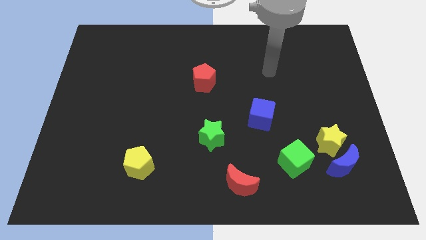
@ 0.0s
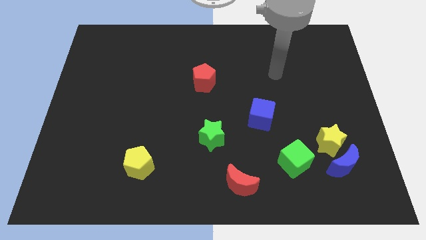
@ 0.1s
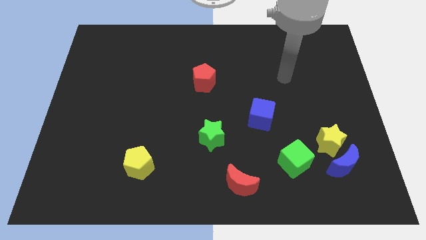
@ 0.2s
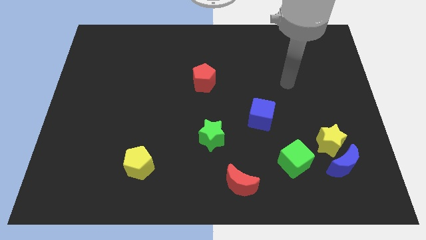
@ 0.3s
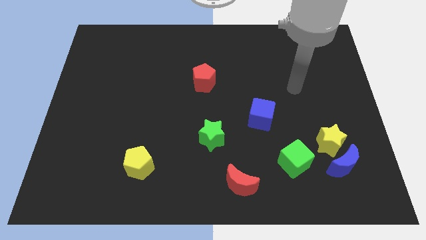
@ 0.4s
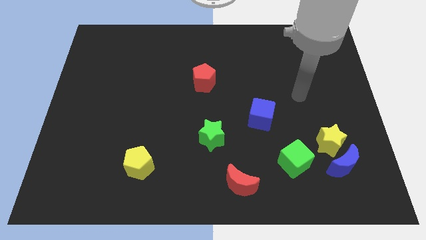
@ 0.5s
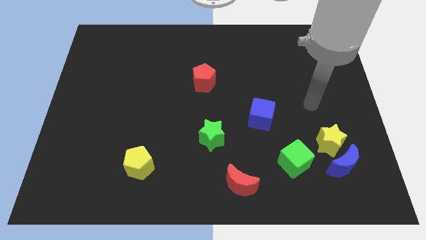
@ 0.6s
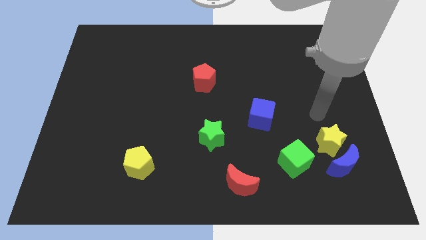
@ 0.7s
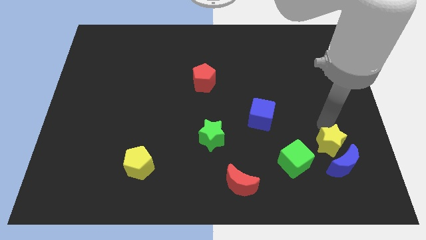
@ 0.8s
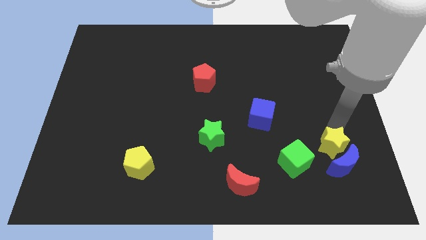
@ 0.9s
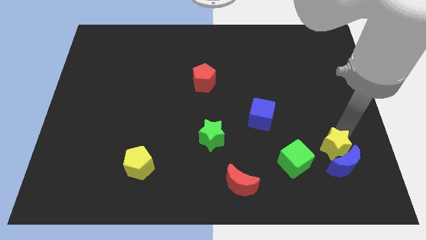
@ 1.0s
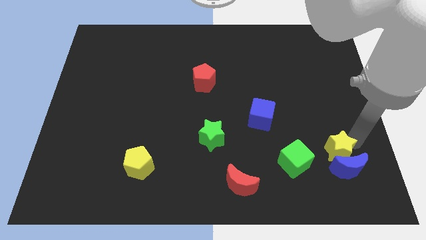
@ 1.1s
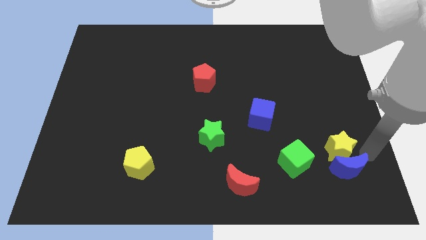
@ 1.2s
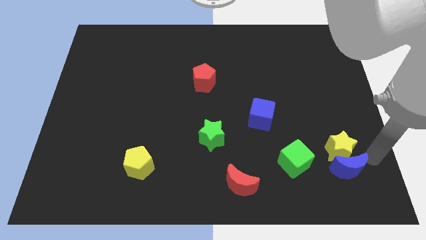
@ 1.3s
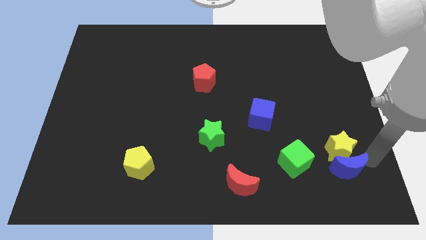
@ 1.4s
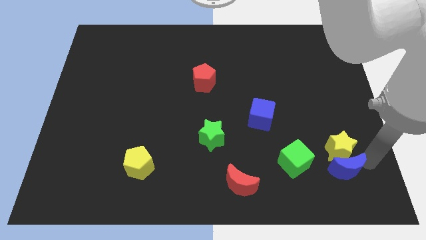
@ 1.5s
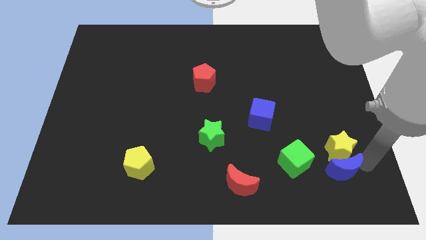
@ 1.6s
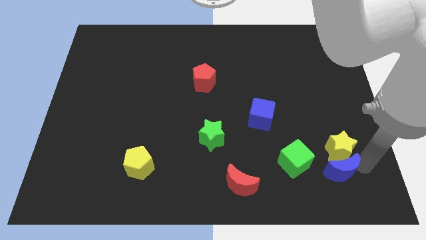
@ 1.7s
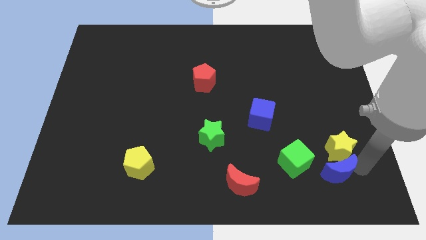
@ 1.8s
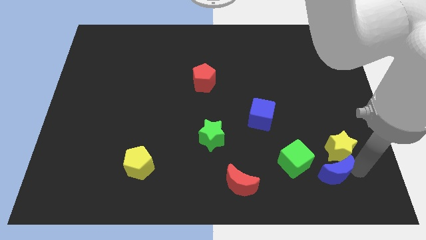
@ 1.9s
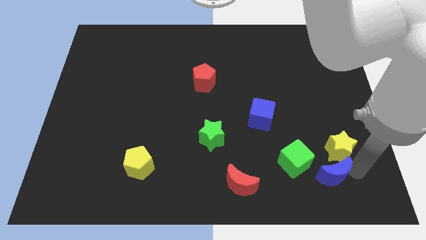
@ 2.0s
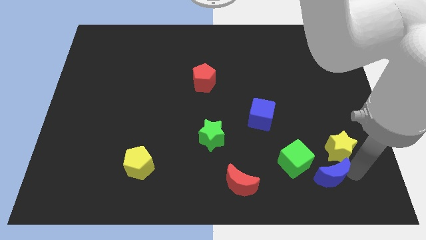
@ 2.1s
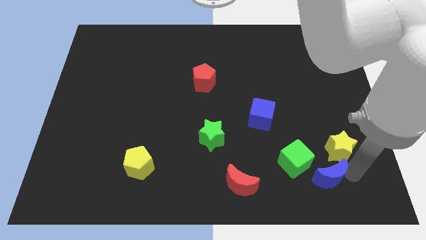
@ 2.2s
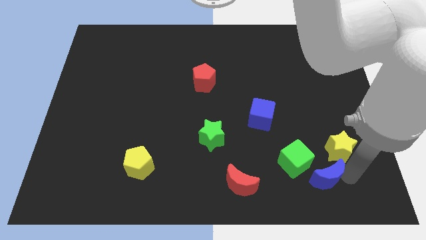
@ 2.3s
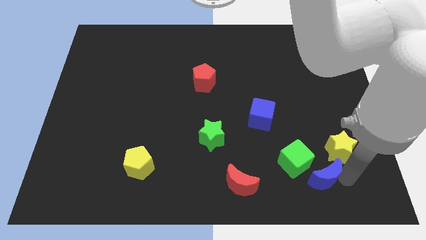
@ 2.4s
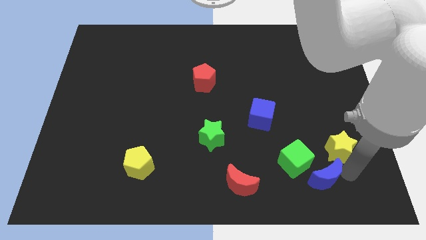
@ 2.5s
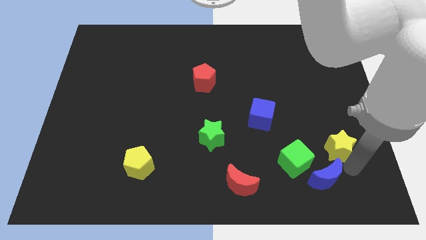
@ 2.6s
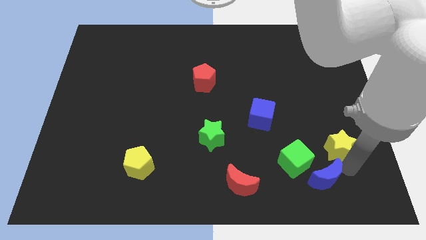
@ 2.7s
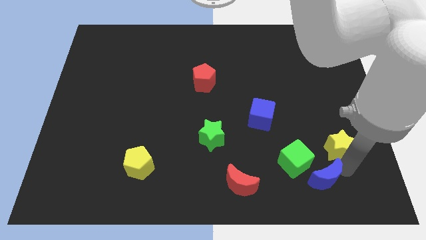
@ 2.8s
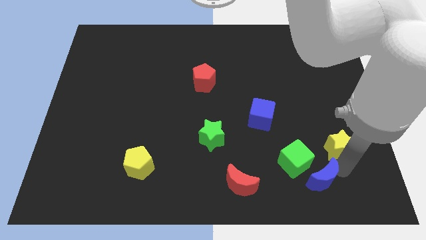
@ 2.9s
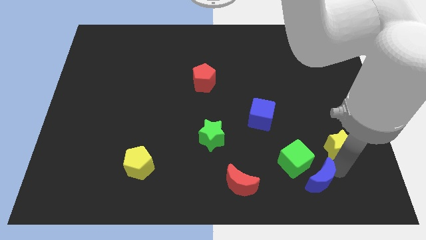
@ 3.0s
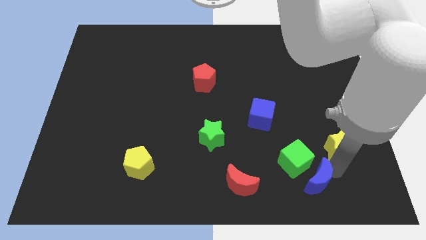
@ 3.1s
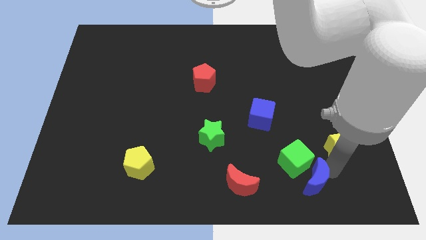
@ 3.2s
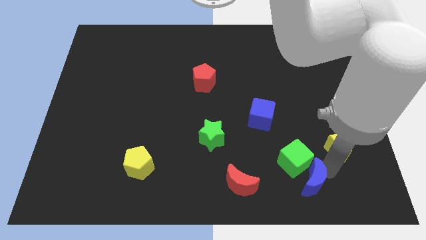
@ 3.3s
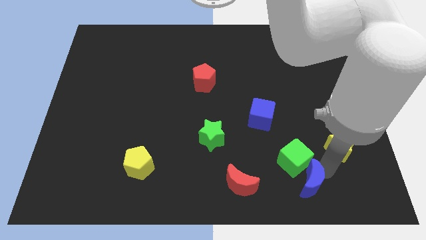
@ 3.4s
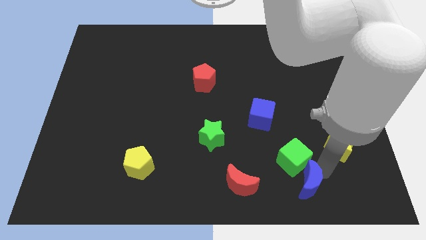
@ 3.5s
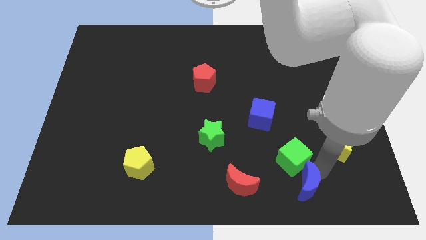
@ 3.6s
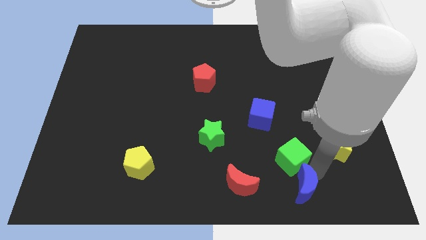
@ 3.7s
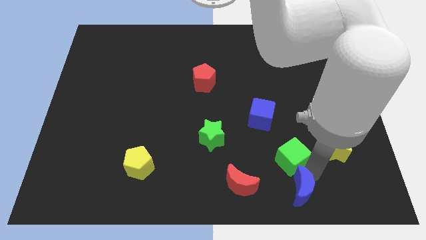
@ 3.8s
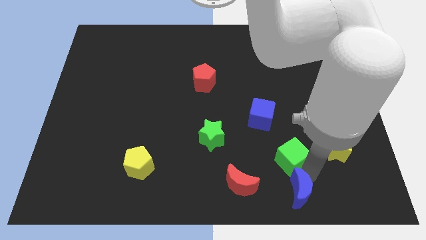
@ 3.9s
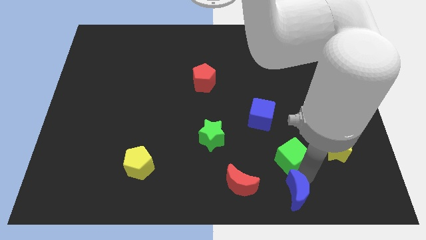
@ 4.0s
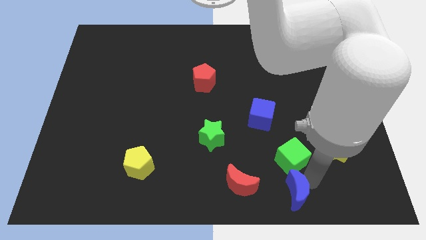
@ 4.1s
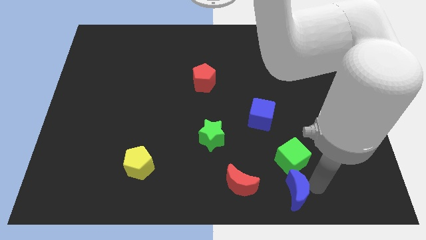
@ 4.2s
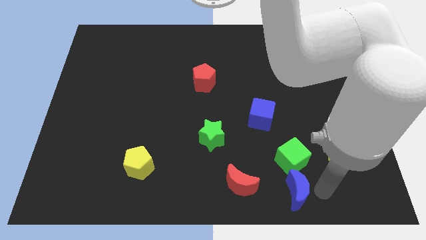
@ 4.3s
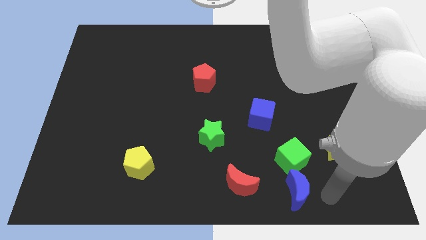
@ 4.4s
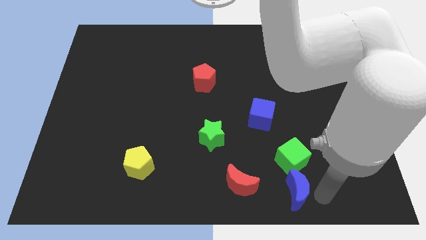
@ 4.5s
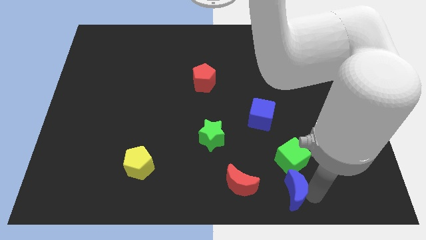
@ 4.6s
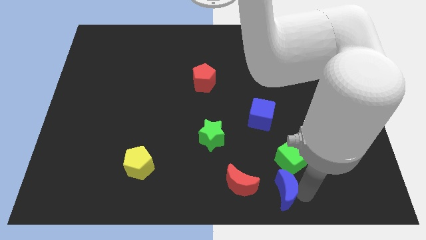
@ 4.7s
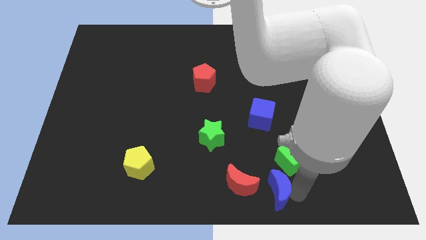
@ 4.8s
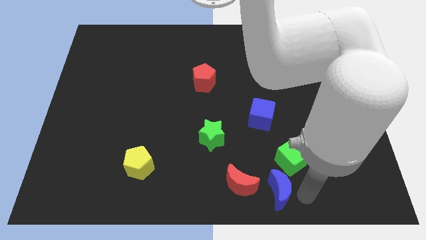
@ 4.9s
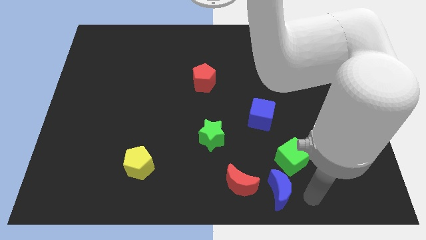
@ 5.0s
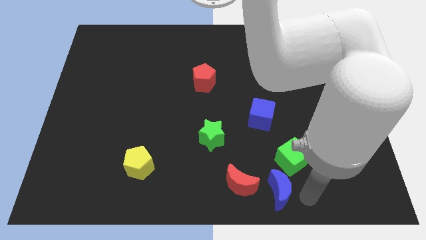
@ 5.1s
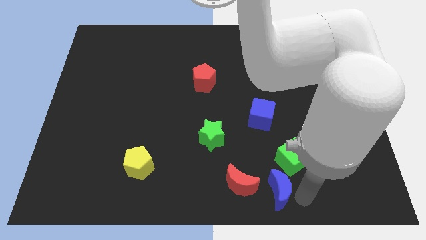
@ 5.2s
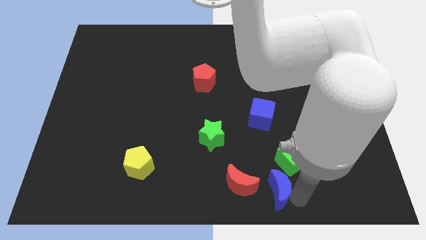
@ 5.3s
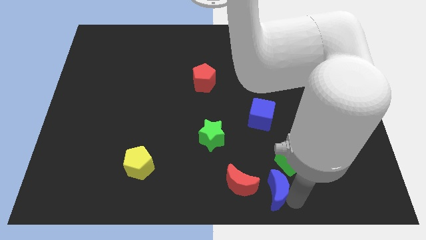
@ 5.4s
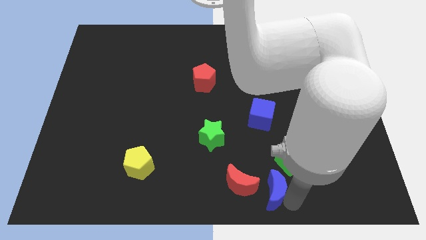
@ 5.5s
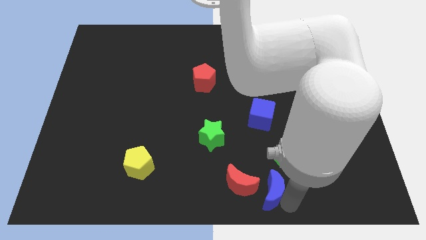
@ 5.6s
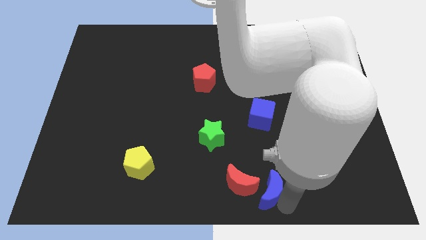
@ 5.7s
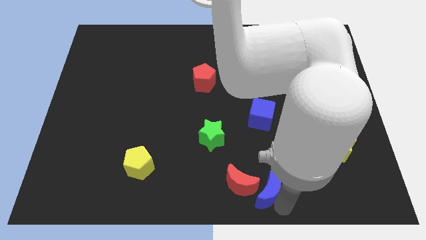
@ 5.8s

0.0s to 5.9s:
put the blue moon to the red moon

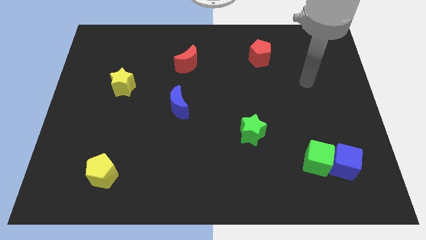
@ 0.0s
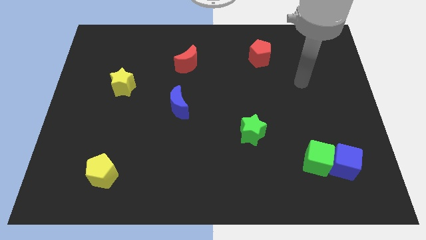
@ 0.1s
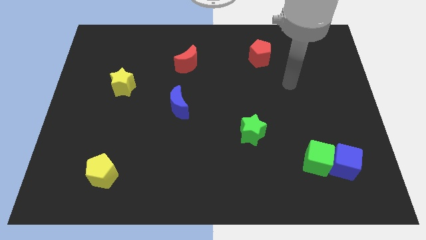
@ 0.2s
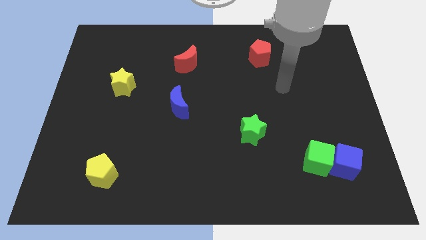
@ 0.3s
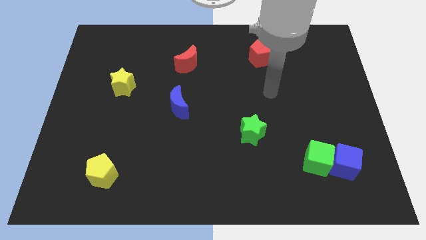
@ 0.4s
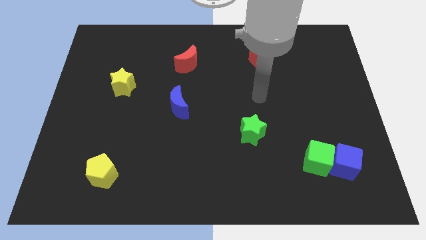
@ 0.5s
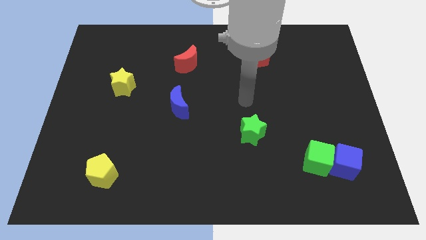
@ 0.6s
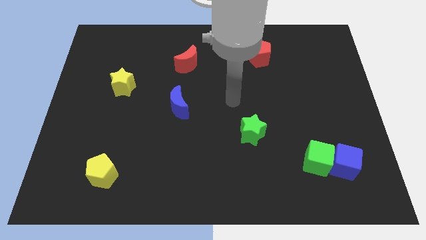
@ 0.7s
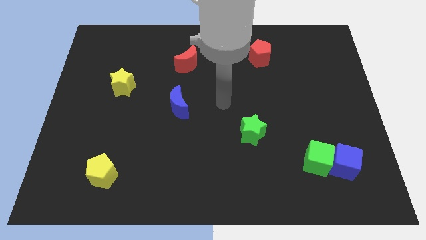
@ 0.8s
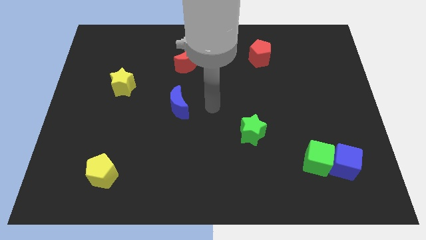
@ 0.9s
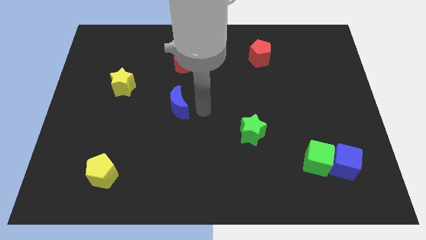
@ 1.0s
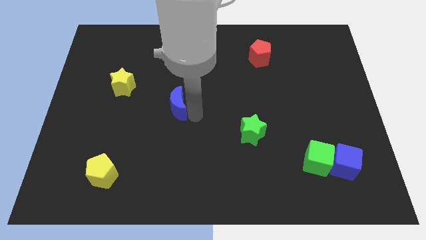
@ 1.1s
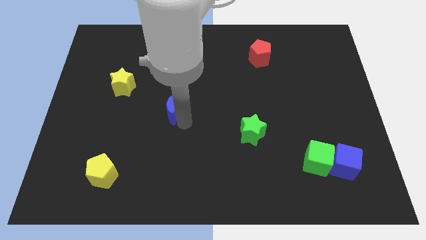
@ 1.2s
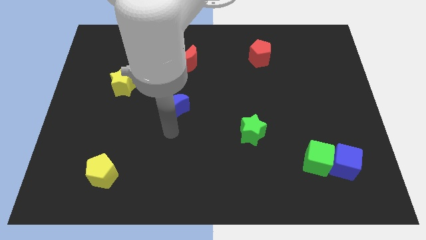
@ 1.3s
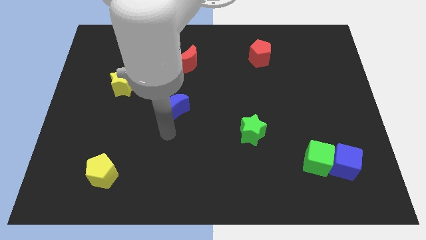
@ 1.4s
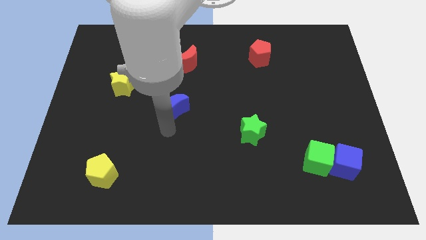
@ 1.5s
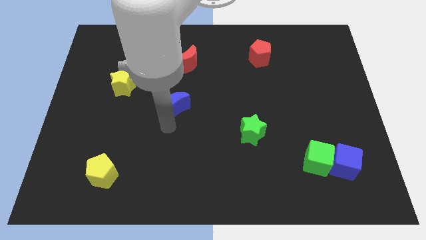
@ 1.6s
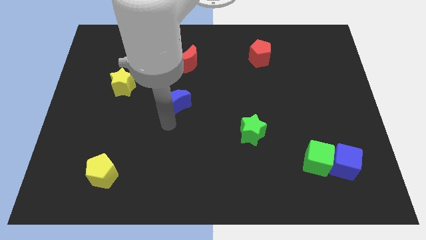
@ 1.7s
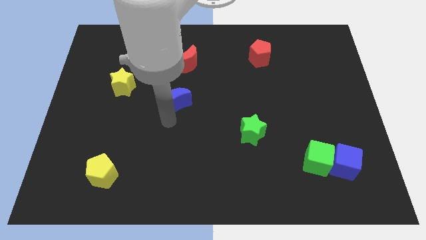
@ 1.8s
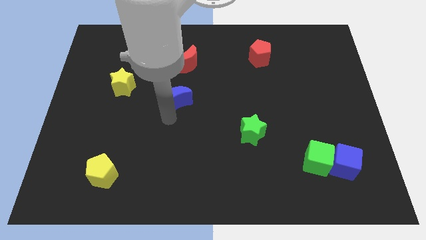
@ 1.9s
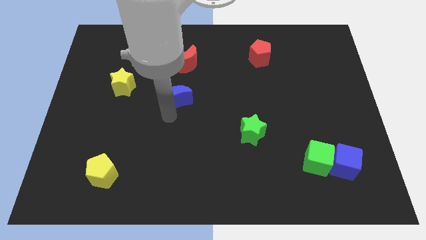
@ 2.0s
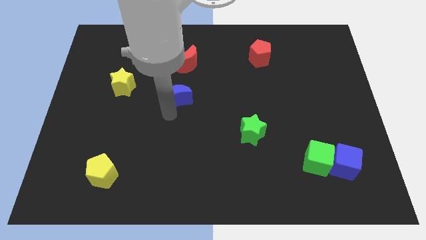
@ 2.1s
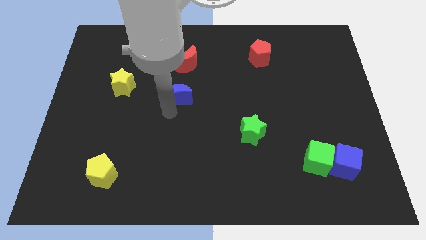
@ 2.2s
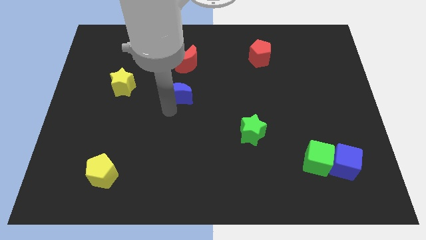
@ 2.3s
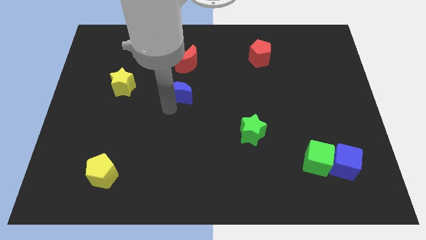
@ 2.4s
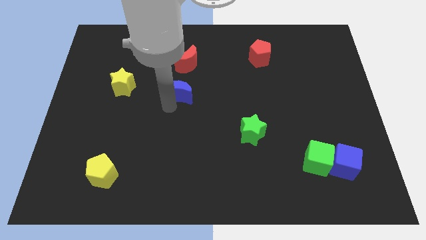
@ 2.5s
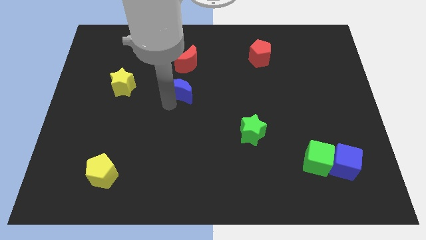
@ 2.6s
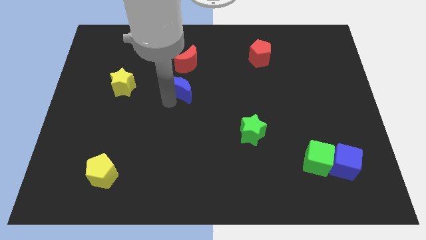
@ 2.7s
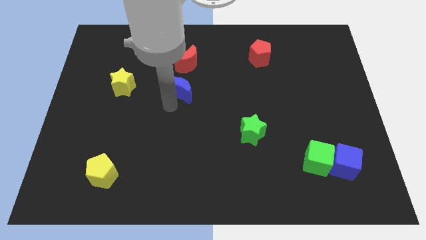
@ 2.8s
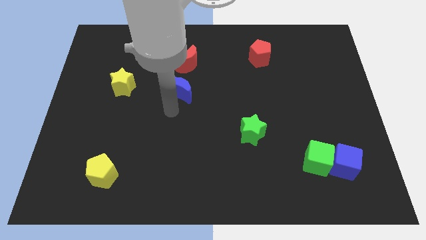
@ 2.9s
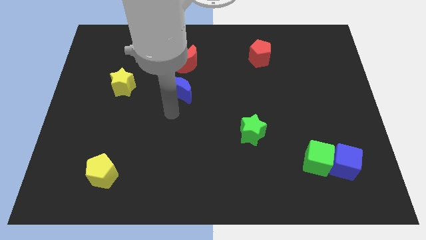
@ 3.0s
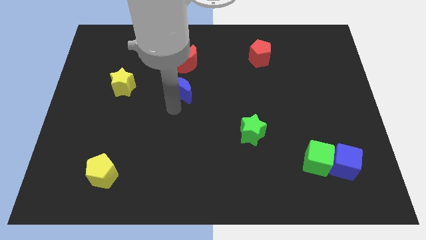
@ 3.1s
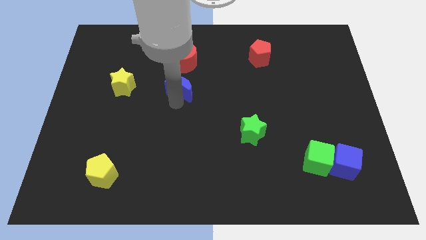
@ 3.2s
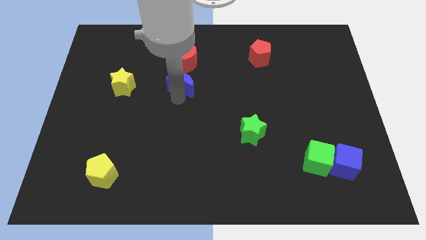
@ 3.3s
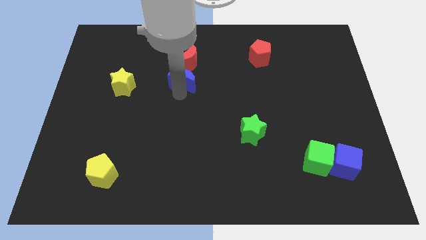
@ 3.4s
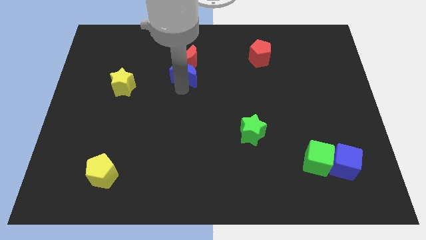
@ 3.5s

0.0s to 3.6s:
push the blue moon towards the red moon
